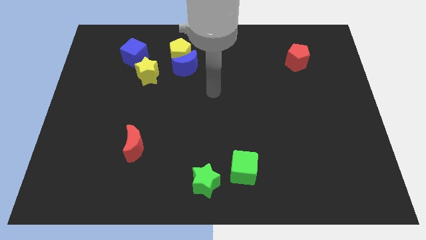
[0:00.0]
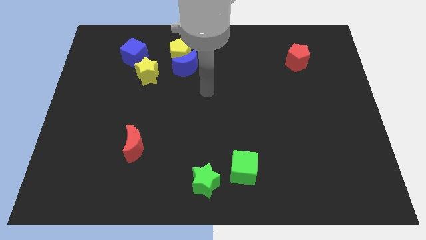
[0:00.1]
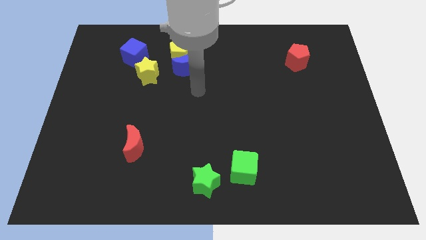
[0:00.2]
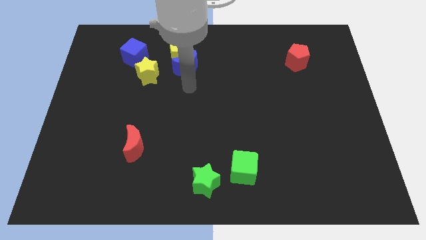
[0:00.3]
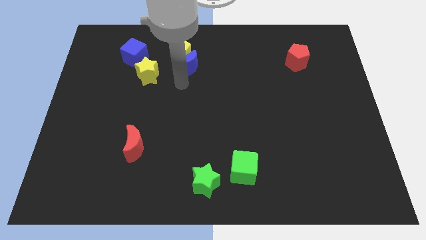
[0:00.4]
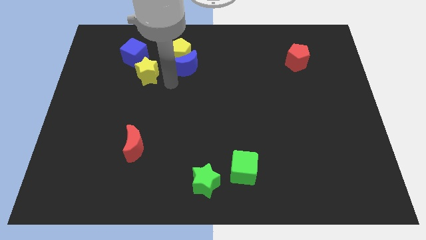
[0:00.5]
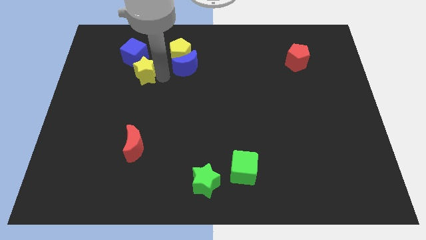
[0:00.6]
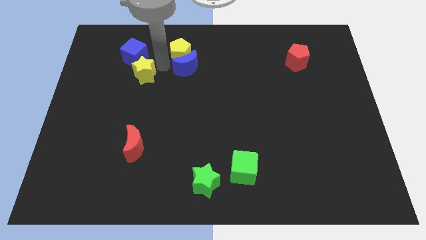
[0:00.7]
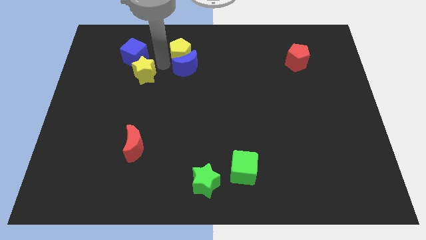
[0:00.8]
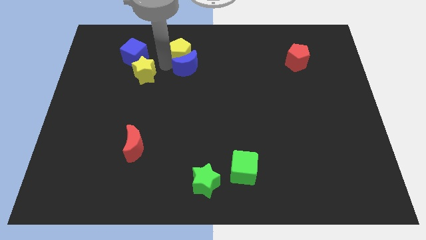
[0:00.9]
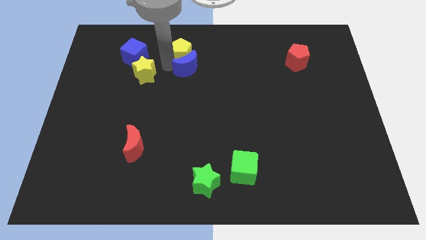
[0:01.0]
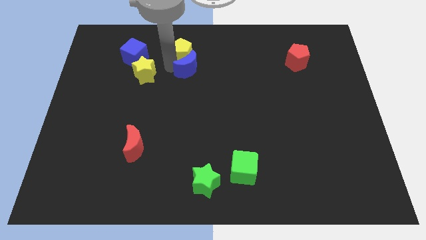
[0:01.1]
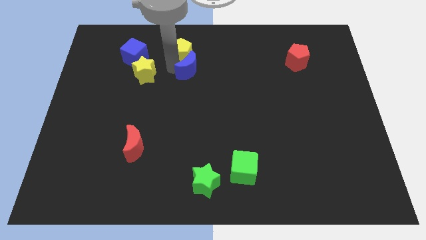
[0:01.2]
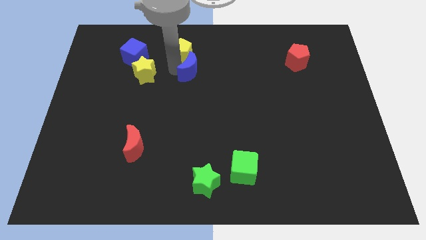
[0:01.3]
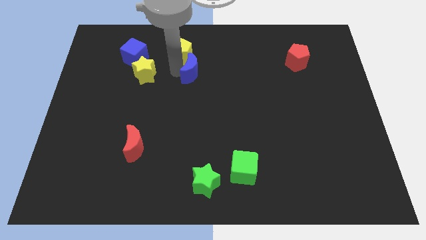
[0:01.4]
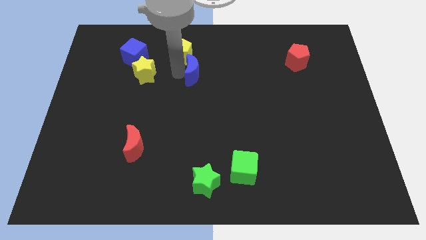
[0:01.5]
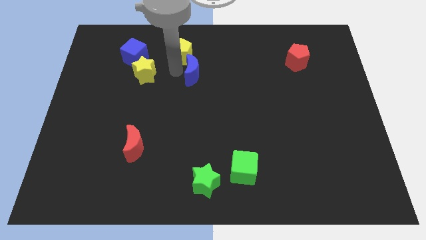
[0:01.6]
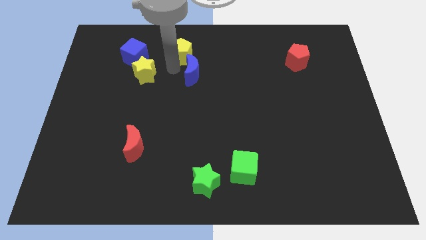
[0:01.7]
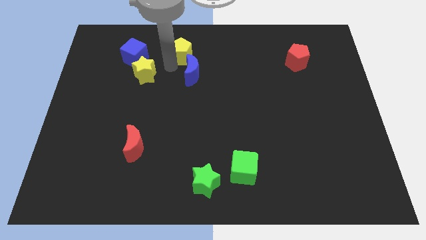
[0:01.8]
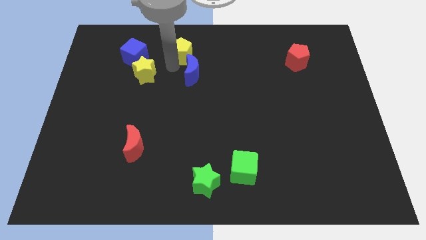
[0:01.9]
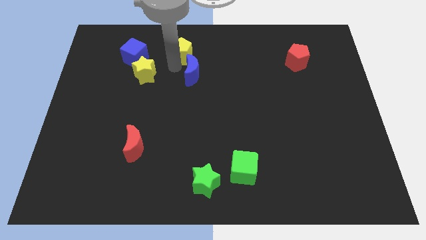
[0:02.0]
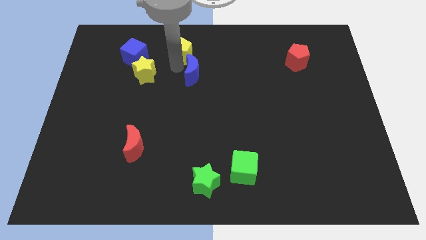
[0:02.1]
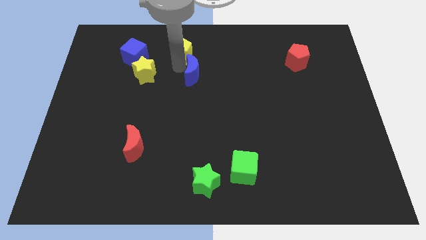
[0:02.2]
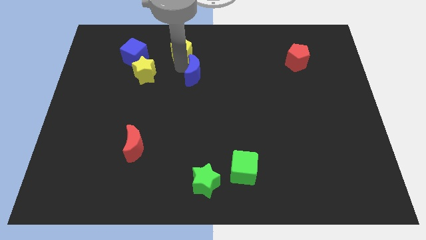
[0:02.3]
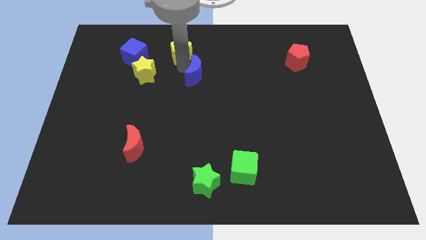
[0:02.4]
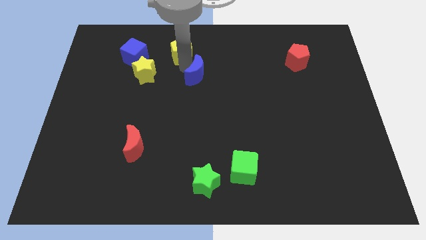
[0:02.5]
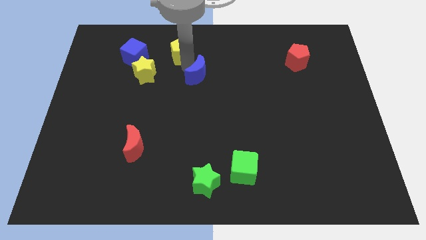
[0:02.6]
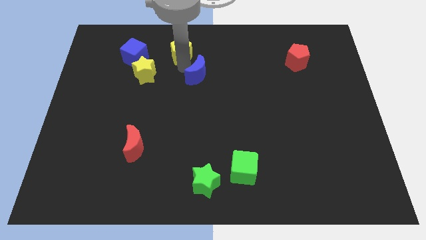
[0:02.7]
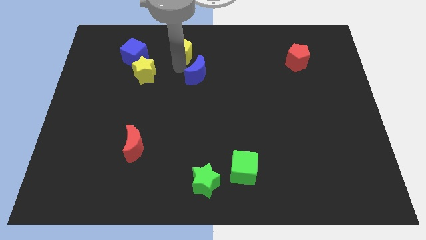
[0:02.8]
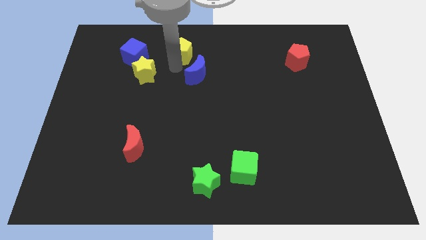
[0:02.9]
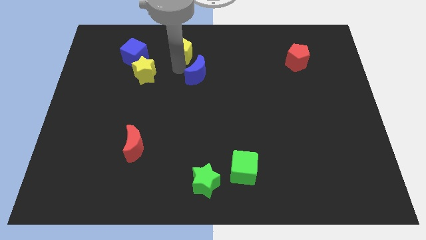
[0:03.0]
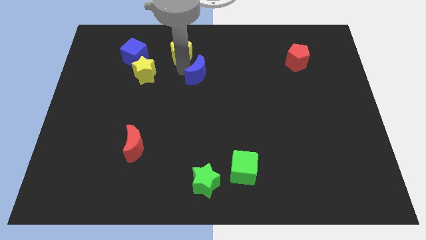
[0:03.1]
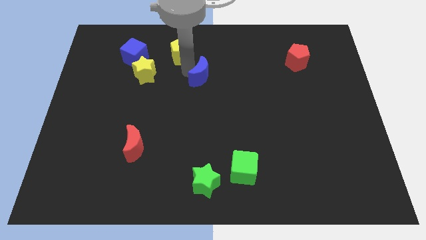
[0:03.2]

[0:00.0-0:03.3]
separate the blue moon from the yellow pentagon and yellow star

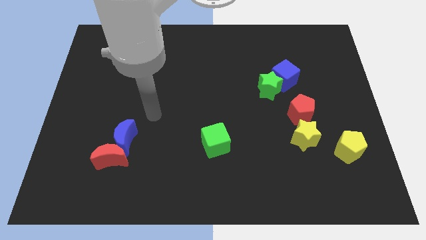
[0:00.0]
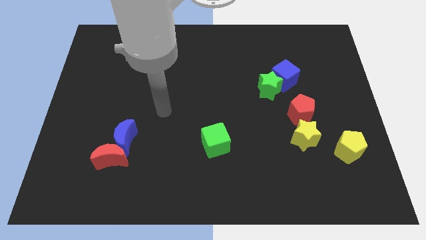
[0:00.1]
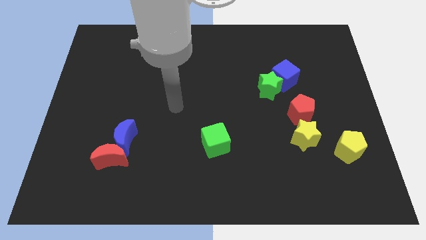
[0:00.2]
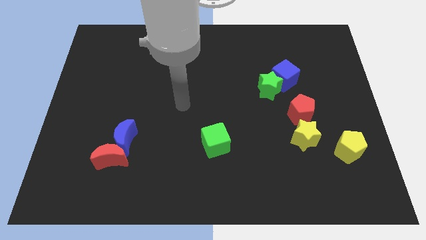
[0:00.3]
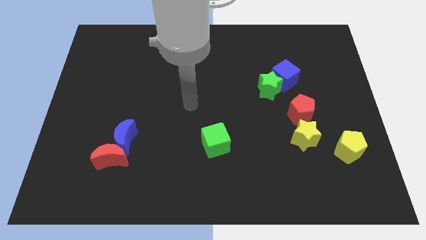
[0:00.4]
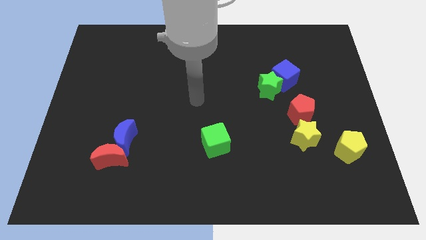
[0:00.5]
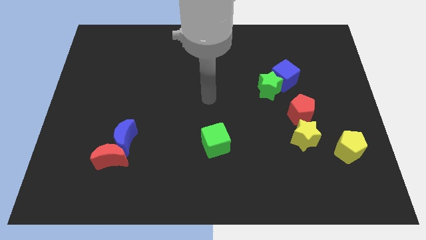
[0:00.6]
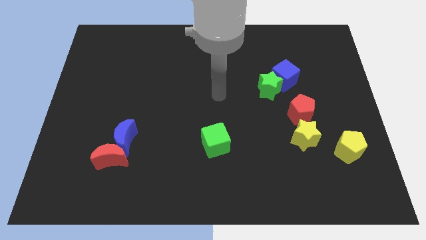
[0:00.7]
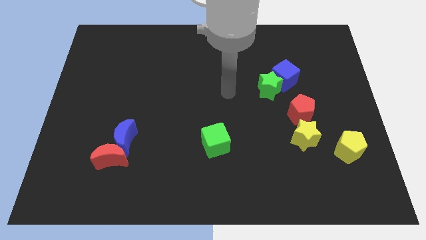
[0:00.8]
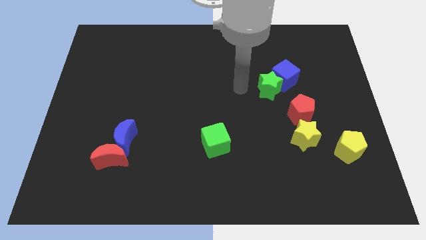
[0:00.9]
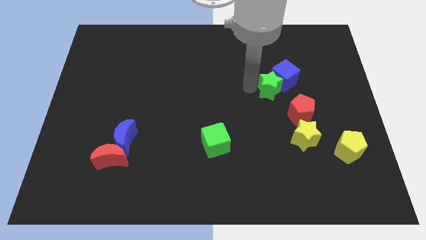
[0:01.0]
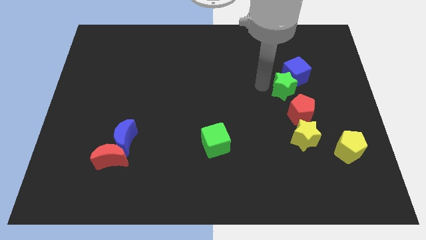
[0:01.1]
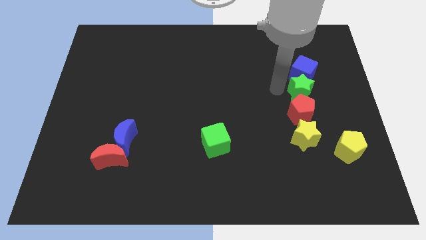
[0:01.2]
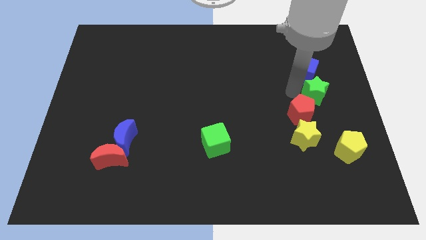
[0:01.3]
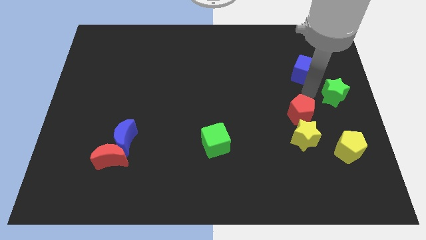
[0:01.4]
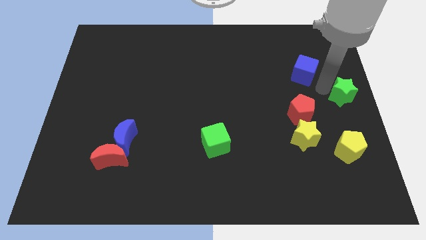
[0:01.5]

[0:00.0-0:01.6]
pull the blue cube apart from the green star

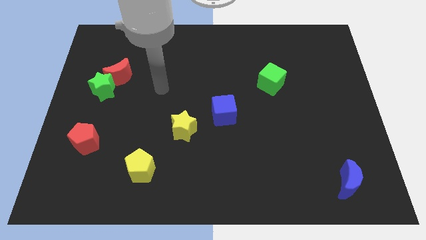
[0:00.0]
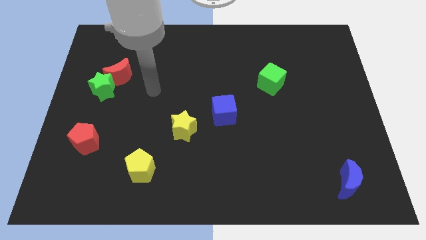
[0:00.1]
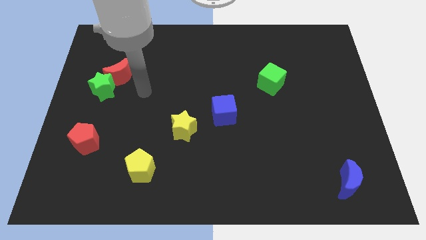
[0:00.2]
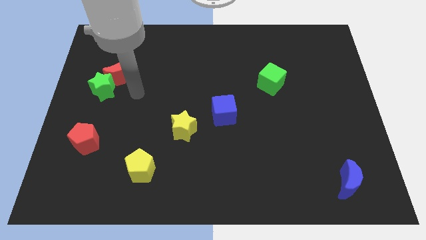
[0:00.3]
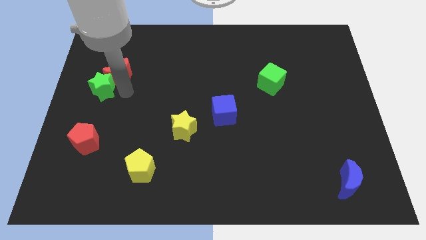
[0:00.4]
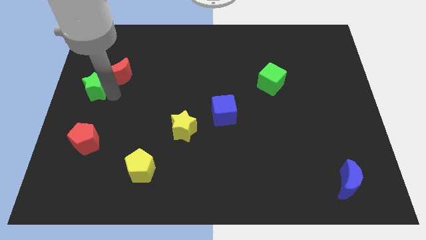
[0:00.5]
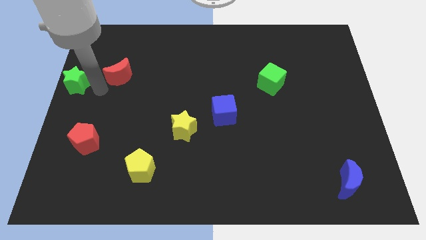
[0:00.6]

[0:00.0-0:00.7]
pull the red moon apart from the green star

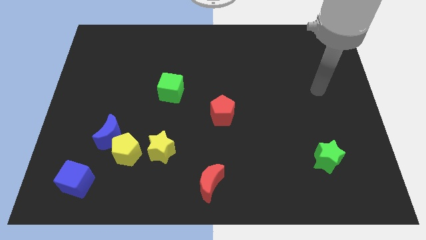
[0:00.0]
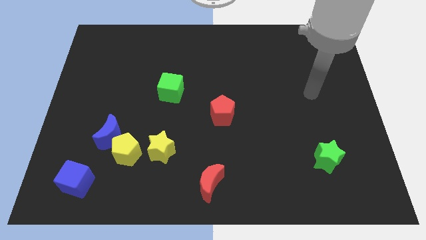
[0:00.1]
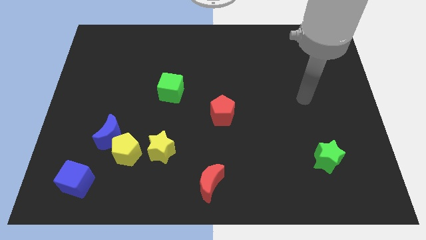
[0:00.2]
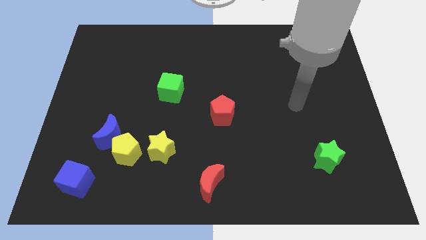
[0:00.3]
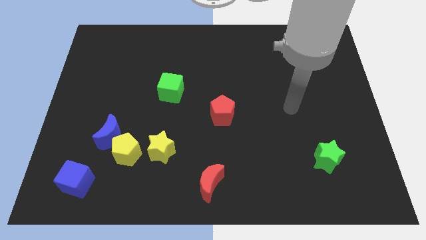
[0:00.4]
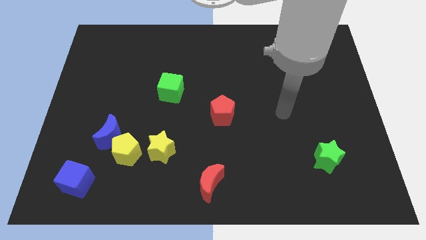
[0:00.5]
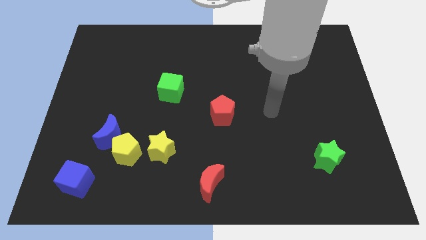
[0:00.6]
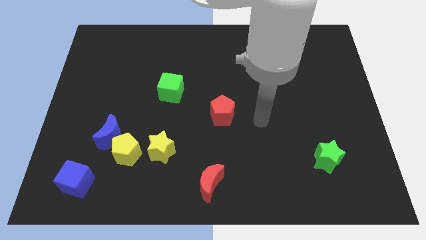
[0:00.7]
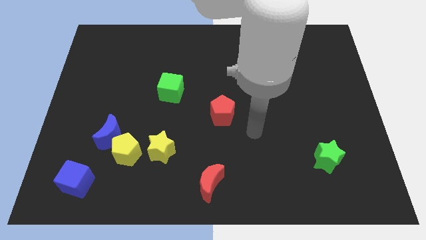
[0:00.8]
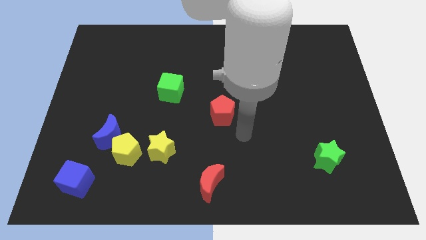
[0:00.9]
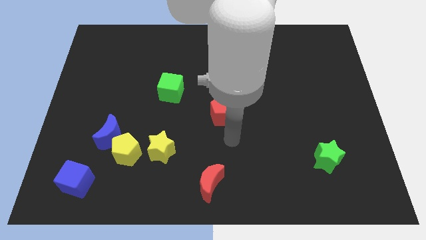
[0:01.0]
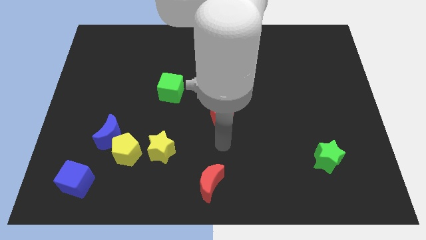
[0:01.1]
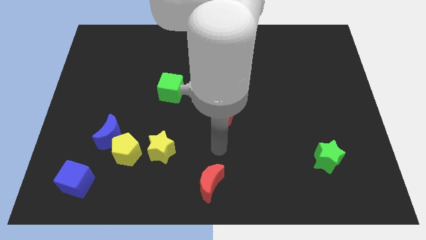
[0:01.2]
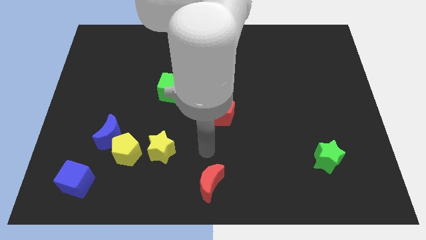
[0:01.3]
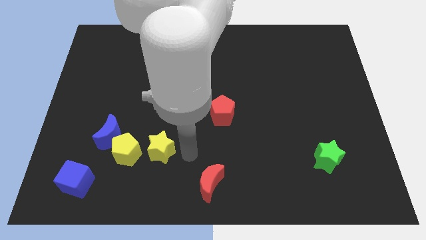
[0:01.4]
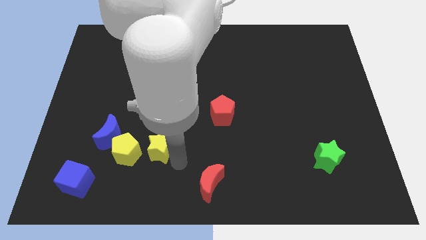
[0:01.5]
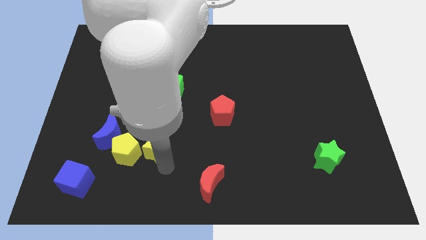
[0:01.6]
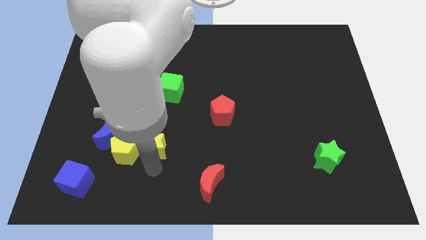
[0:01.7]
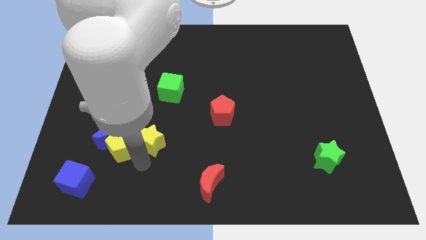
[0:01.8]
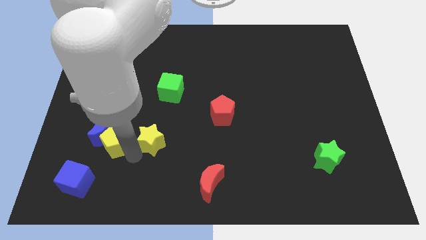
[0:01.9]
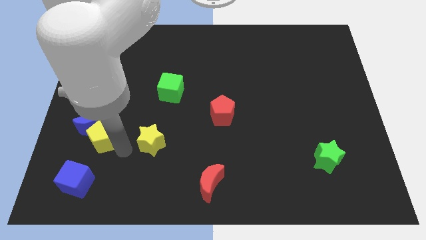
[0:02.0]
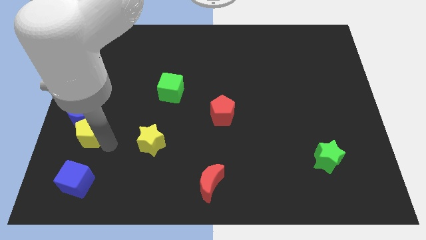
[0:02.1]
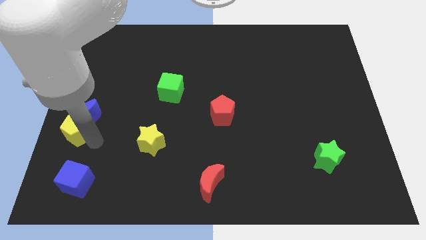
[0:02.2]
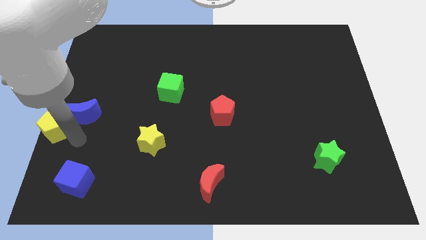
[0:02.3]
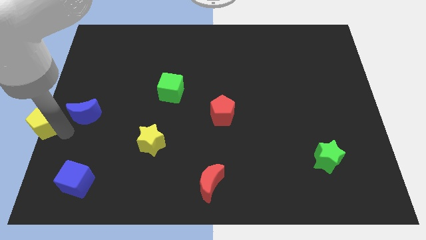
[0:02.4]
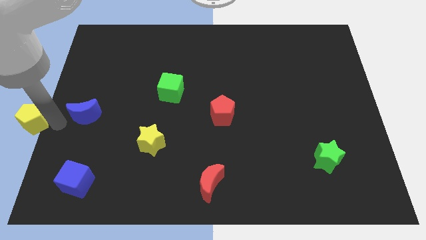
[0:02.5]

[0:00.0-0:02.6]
move the blue moon away from the yellow pentagon

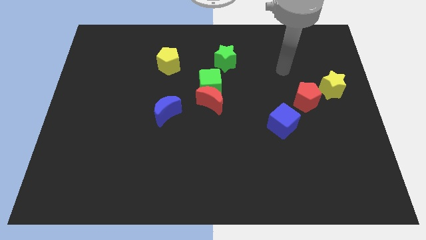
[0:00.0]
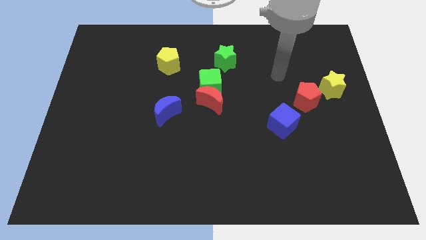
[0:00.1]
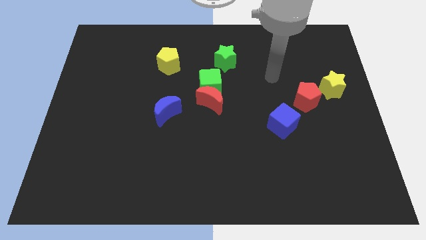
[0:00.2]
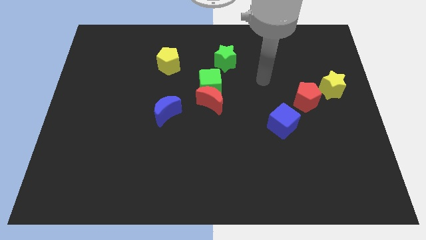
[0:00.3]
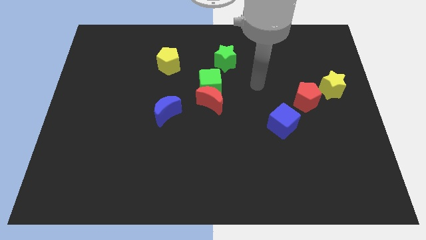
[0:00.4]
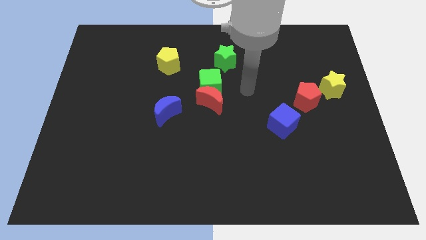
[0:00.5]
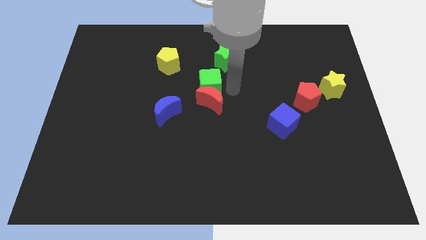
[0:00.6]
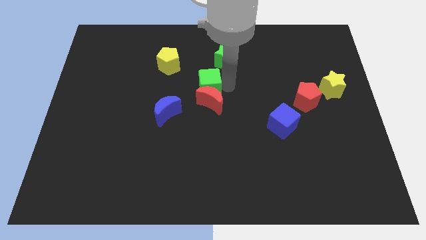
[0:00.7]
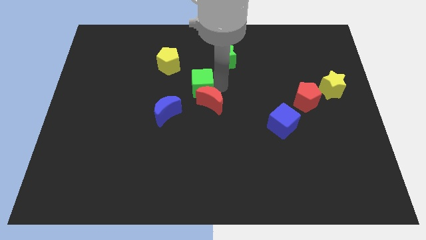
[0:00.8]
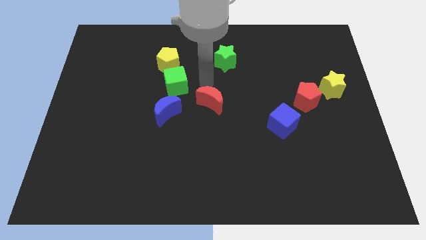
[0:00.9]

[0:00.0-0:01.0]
pull the red moon apart from the green cube
